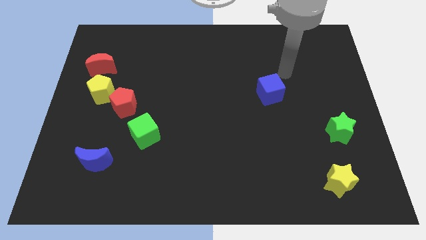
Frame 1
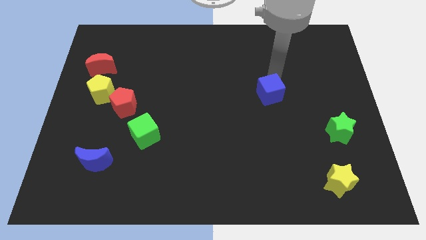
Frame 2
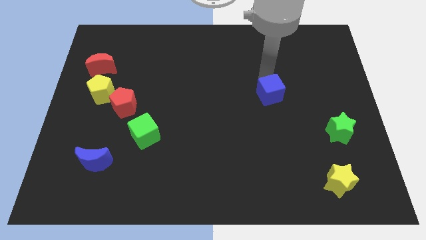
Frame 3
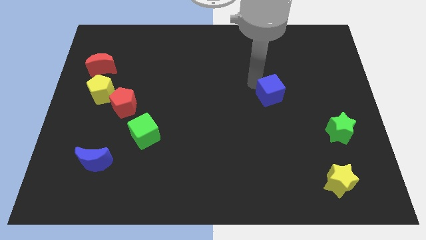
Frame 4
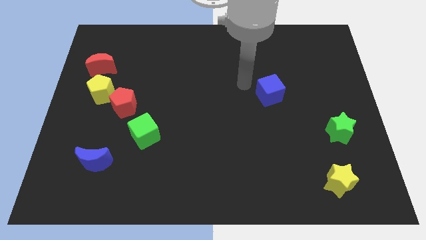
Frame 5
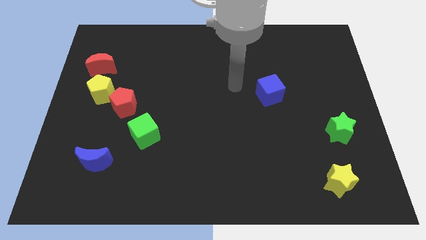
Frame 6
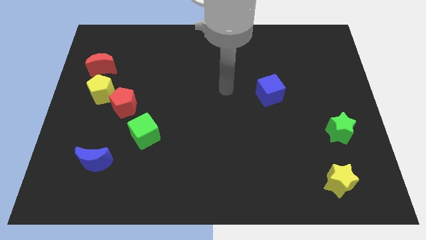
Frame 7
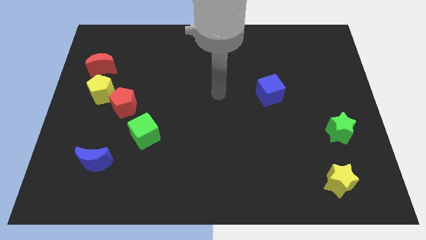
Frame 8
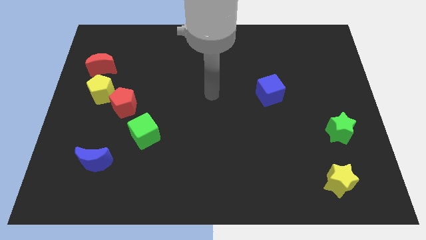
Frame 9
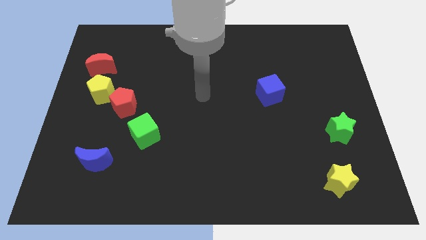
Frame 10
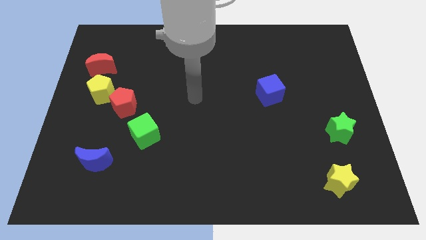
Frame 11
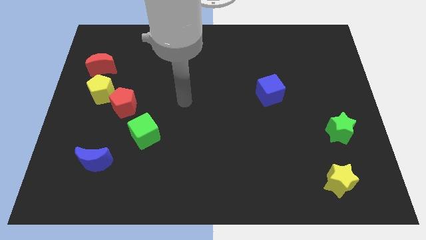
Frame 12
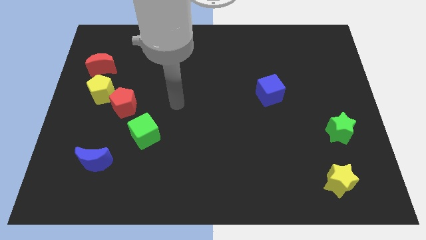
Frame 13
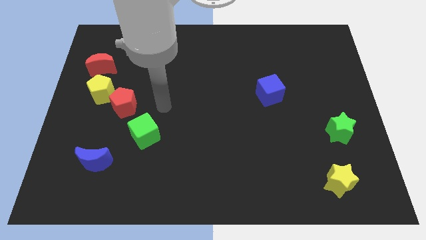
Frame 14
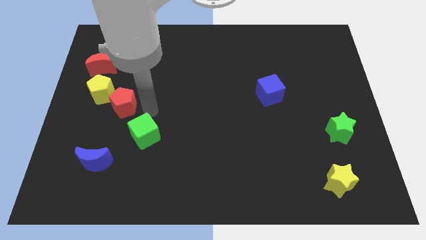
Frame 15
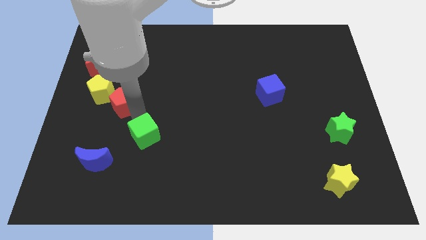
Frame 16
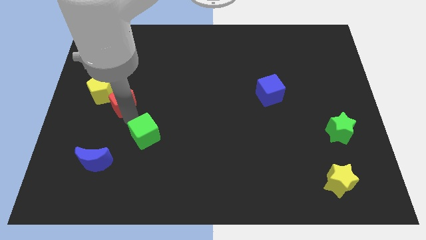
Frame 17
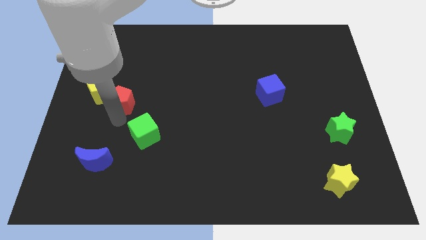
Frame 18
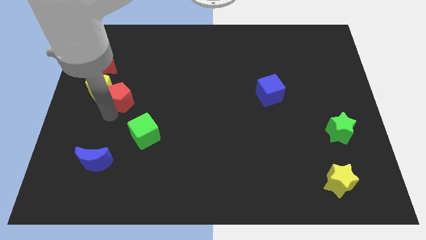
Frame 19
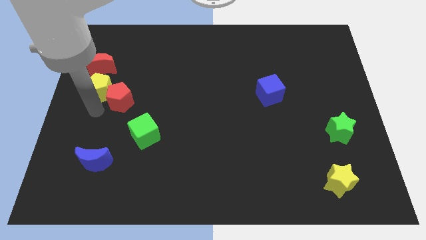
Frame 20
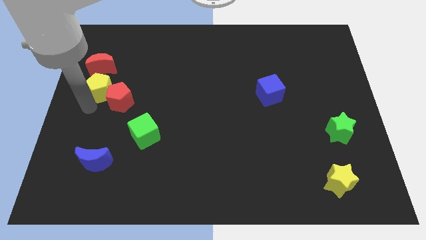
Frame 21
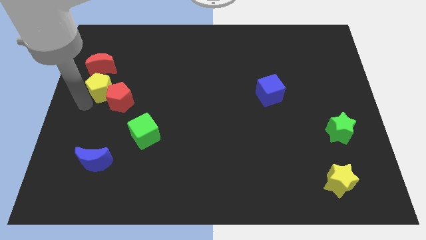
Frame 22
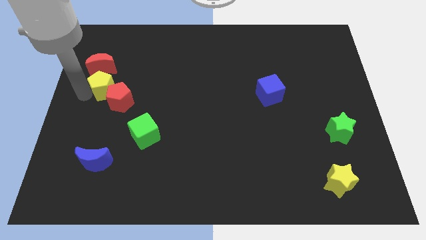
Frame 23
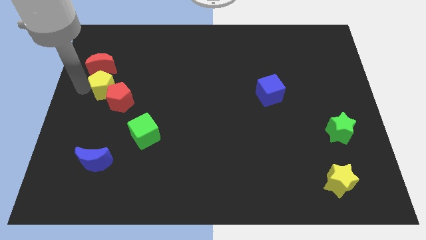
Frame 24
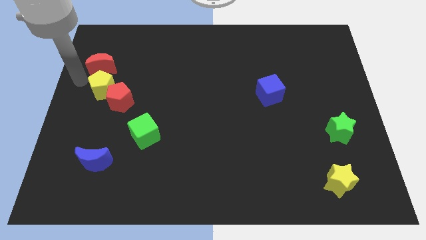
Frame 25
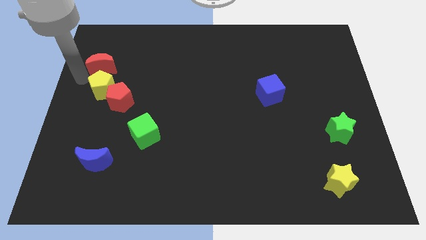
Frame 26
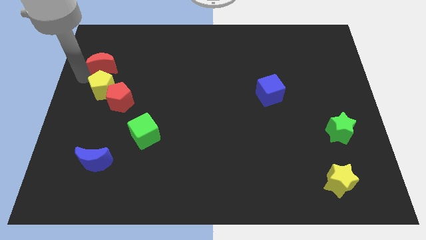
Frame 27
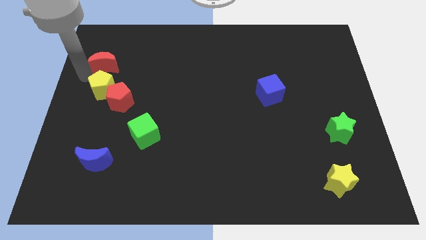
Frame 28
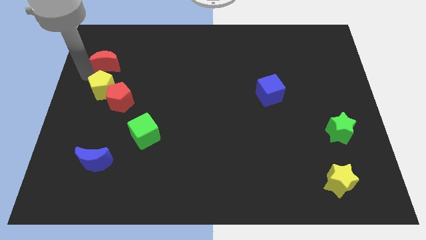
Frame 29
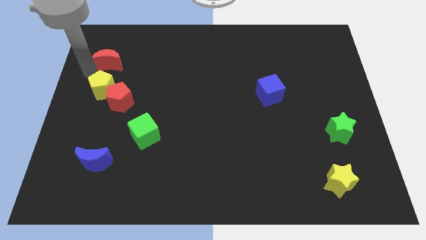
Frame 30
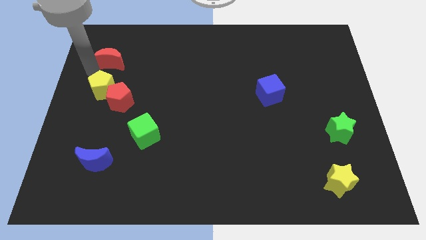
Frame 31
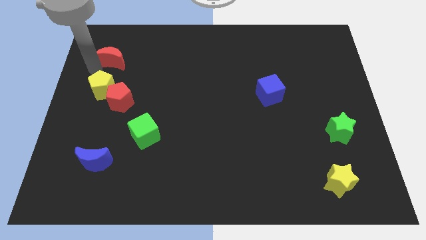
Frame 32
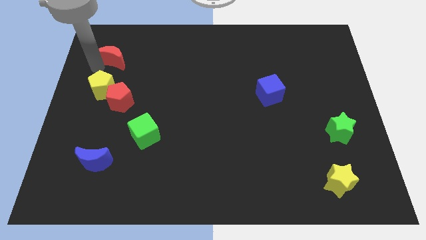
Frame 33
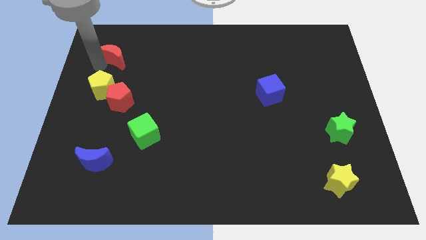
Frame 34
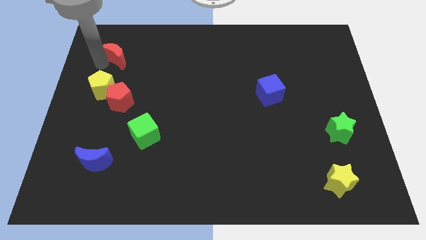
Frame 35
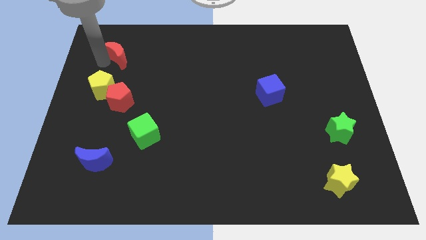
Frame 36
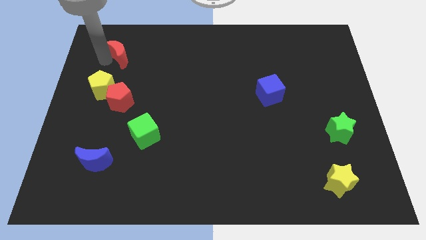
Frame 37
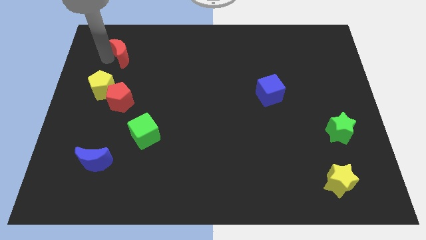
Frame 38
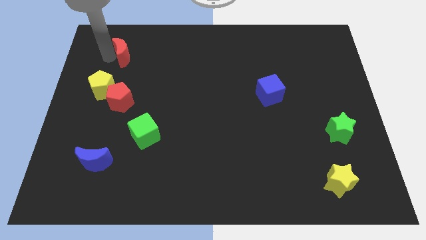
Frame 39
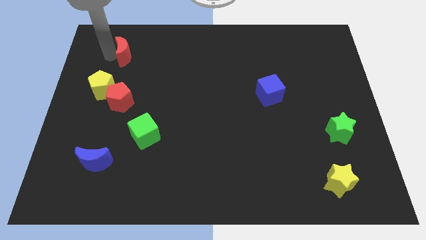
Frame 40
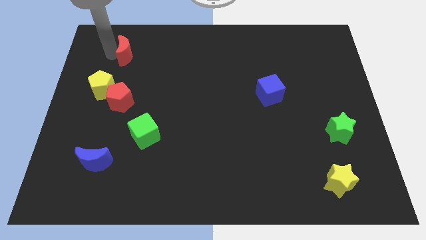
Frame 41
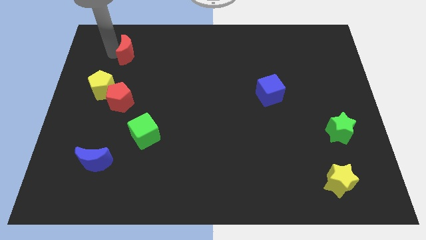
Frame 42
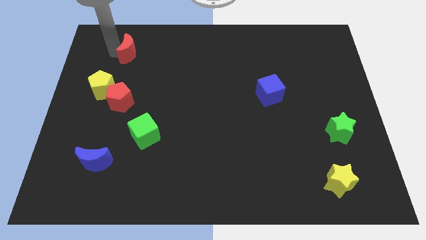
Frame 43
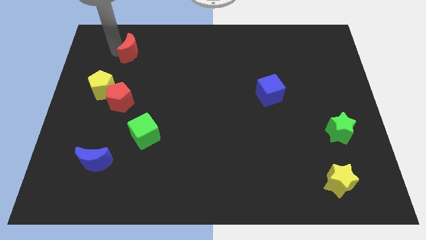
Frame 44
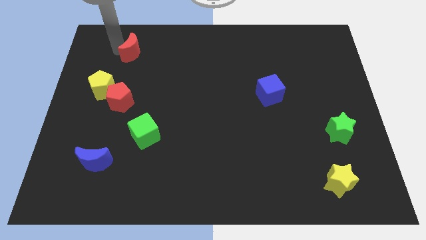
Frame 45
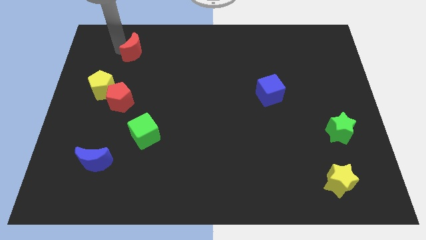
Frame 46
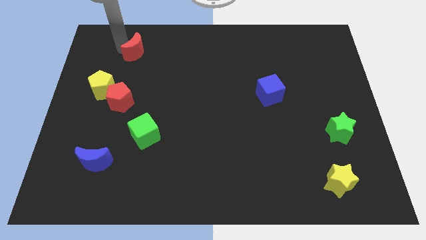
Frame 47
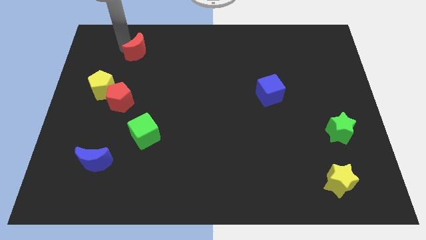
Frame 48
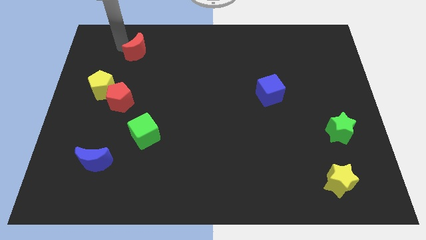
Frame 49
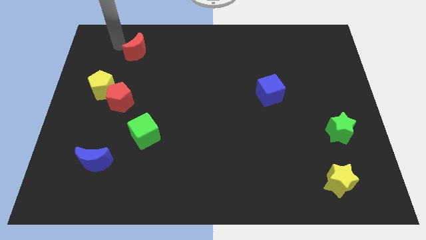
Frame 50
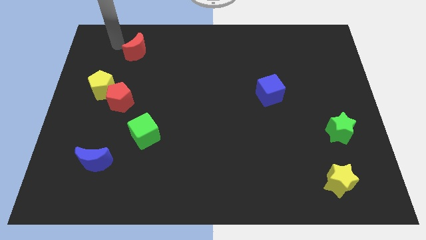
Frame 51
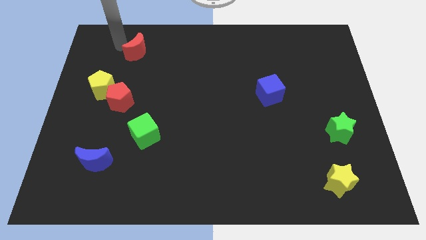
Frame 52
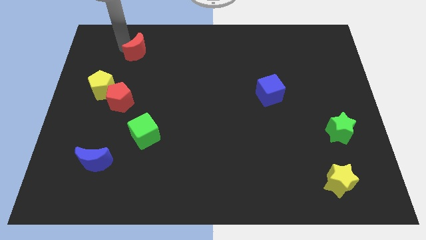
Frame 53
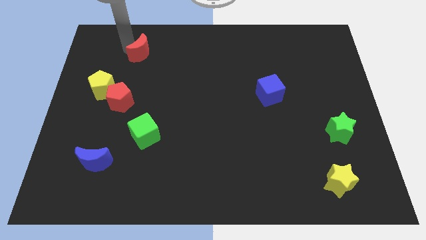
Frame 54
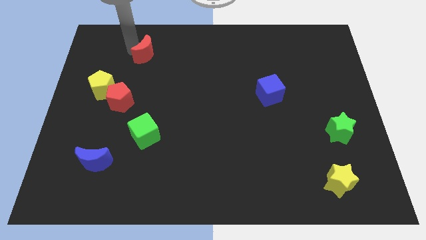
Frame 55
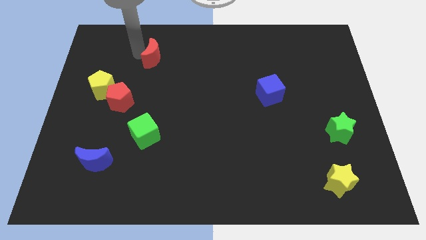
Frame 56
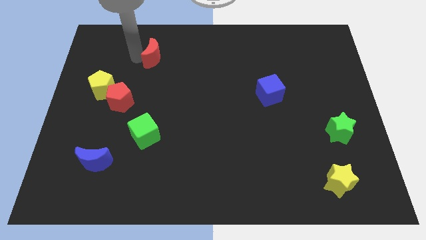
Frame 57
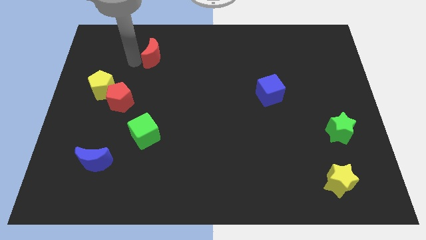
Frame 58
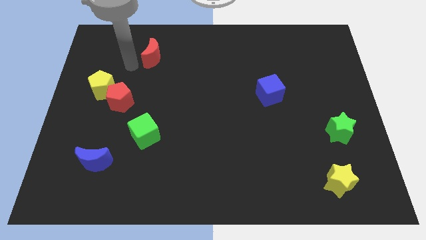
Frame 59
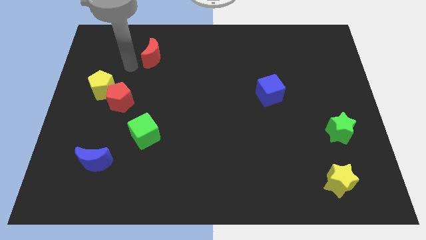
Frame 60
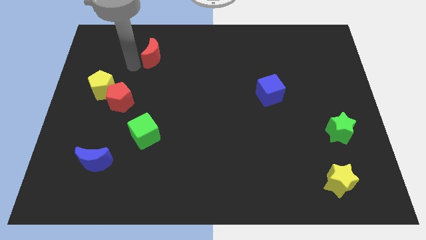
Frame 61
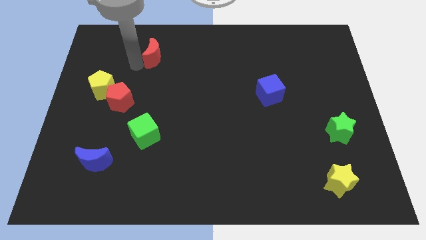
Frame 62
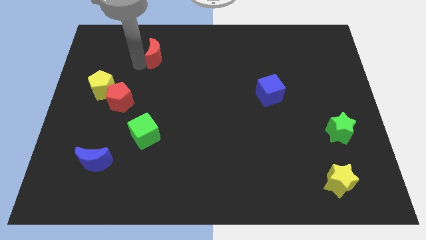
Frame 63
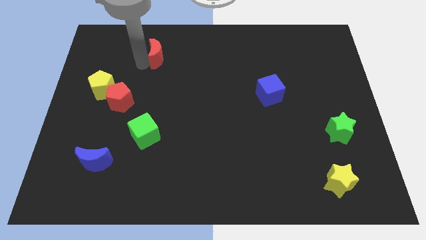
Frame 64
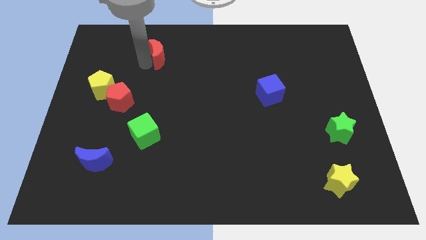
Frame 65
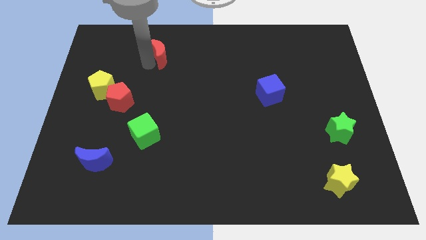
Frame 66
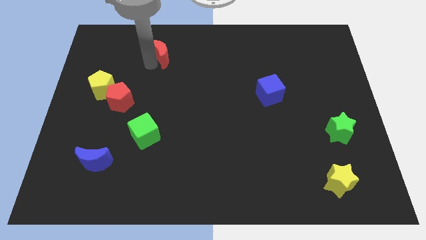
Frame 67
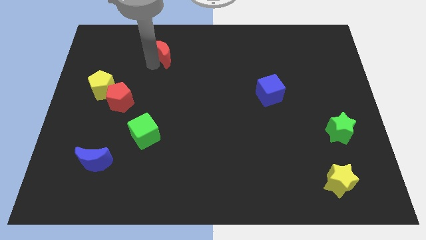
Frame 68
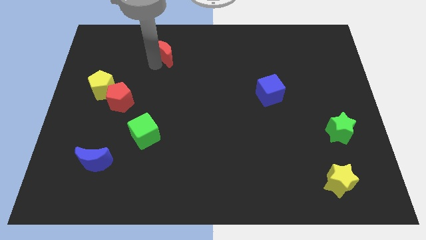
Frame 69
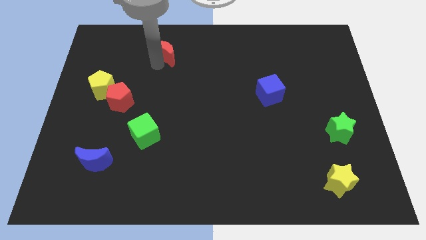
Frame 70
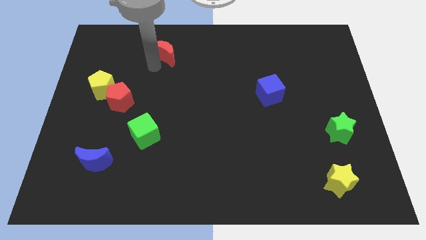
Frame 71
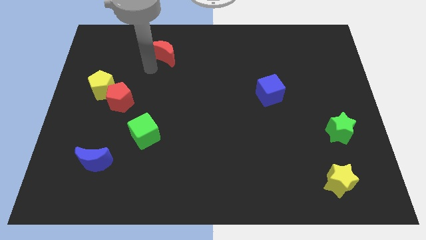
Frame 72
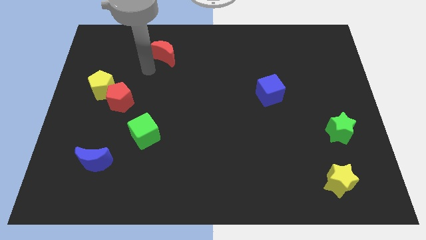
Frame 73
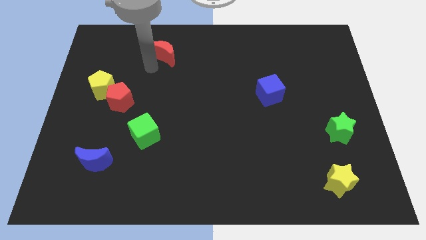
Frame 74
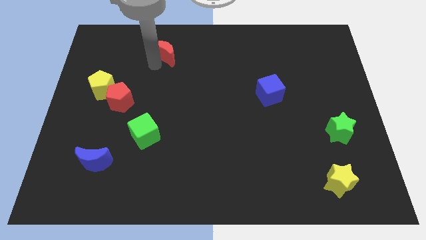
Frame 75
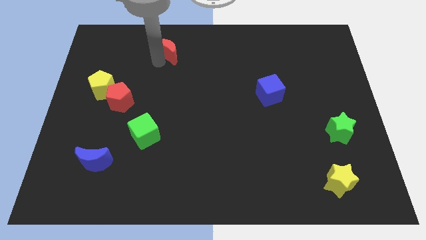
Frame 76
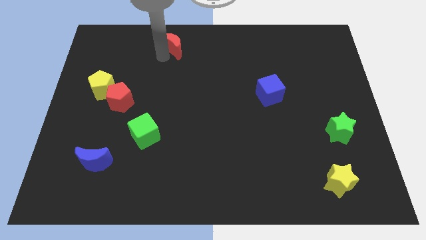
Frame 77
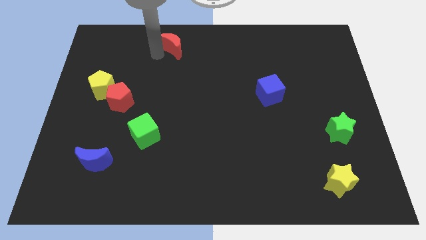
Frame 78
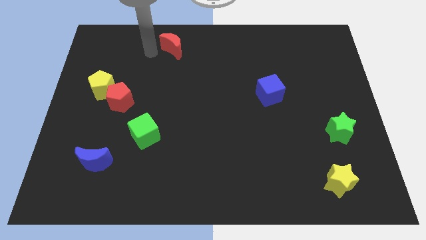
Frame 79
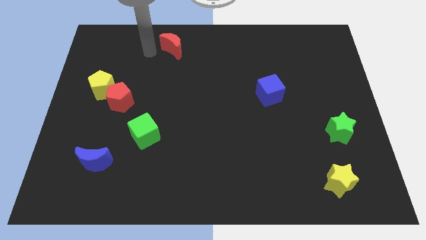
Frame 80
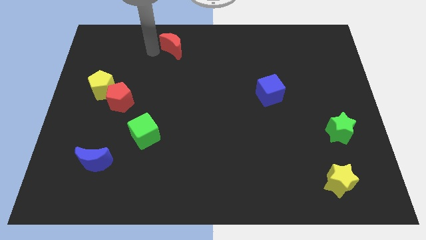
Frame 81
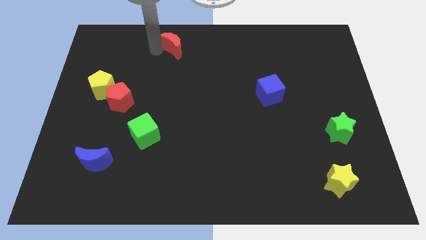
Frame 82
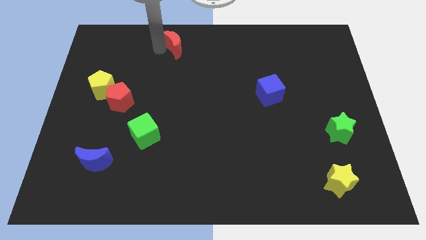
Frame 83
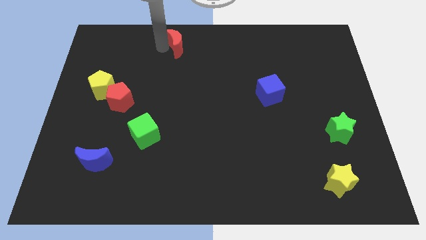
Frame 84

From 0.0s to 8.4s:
slide the red moon to the towards your base
